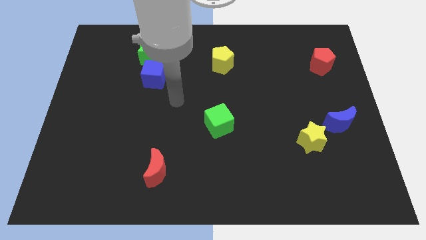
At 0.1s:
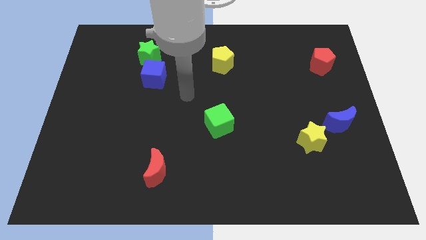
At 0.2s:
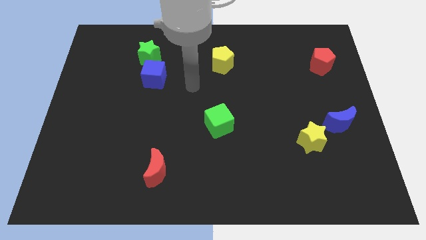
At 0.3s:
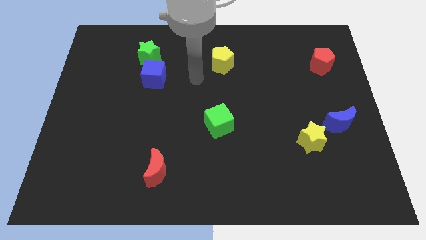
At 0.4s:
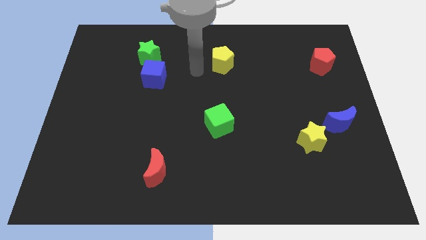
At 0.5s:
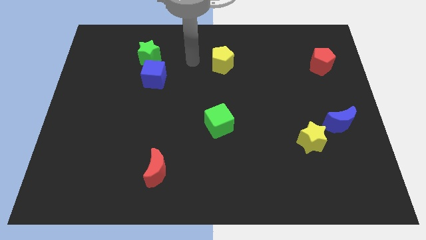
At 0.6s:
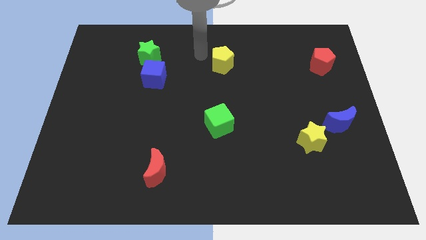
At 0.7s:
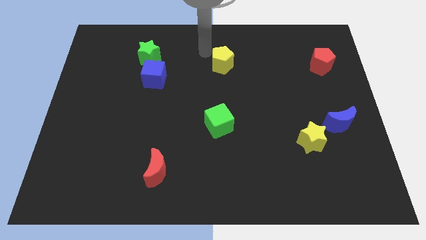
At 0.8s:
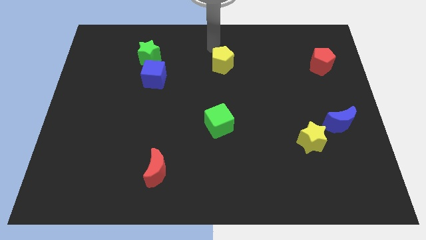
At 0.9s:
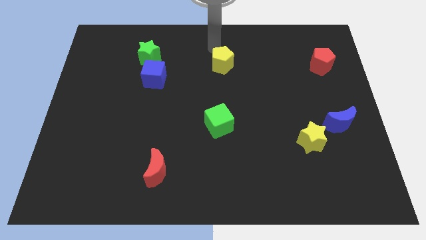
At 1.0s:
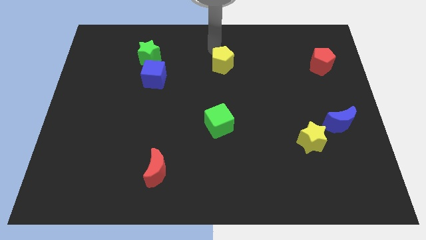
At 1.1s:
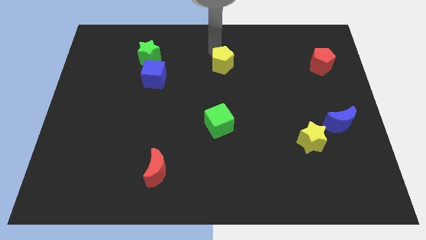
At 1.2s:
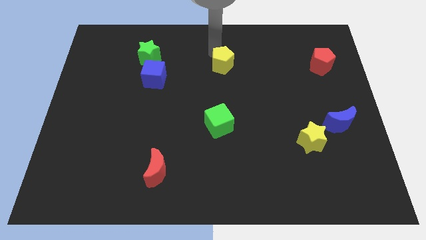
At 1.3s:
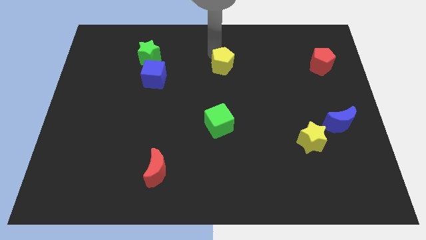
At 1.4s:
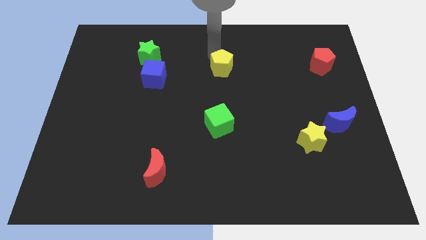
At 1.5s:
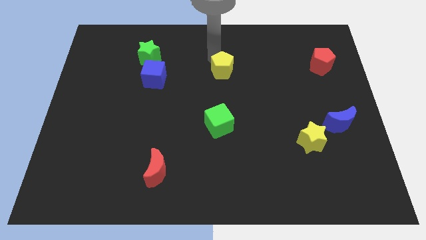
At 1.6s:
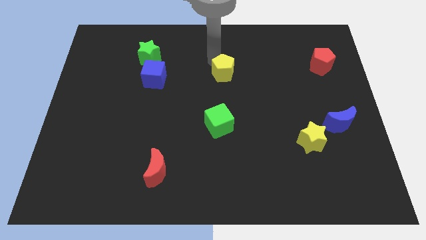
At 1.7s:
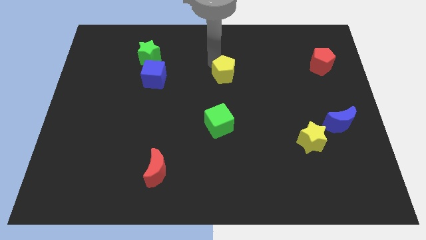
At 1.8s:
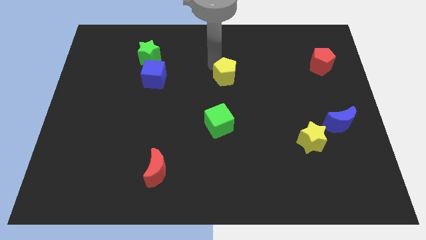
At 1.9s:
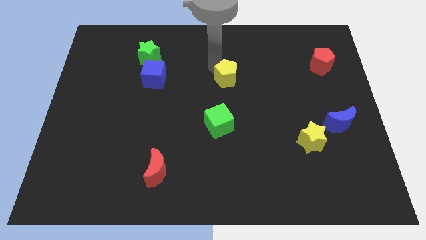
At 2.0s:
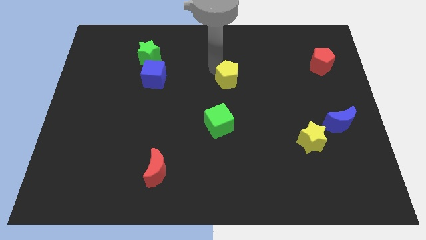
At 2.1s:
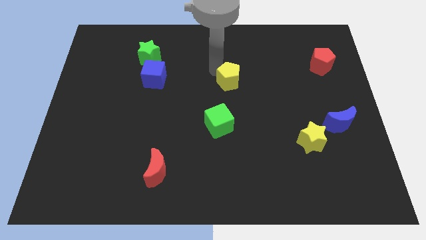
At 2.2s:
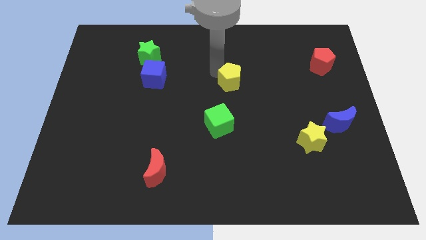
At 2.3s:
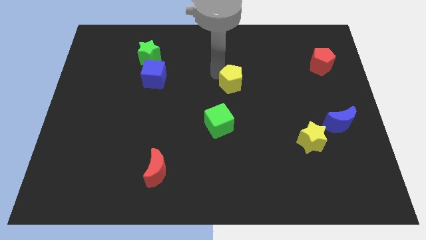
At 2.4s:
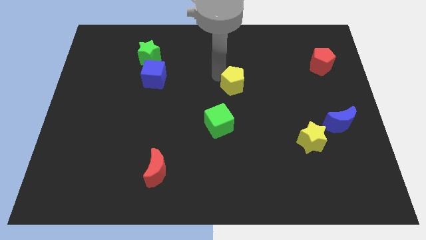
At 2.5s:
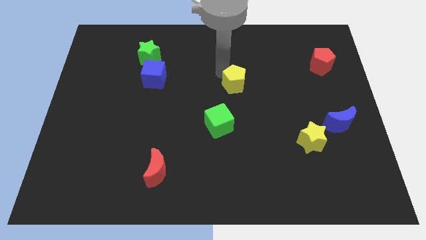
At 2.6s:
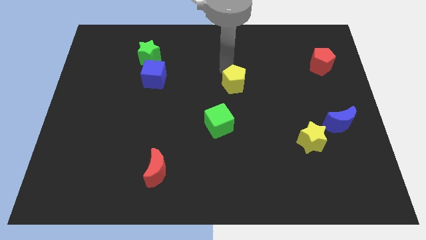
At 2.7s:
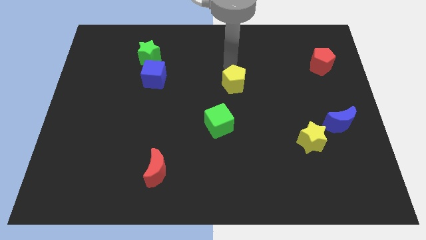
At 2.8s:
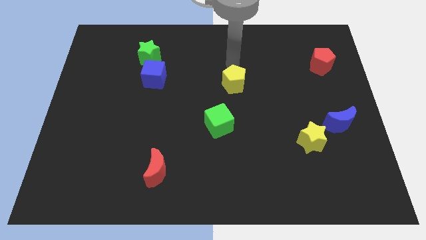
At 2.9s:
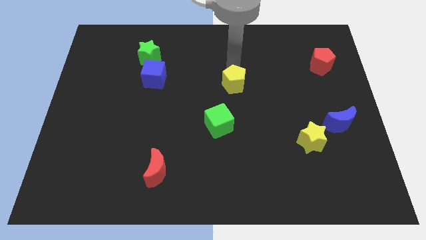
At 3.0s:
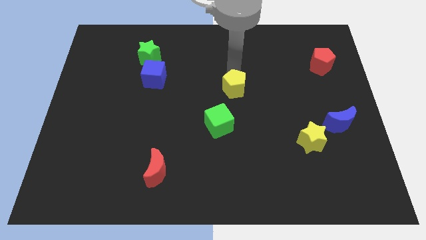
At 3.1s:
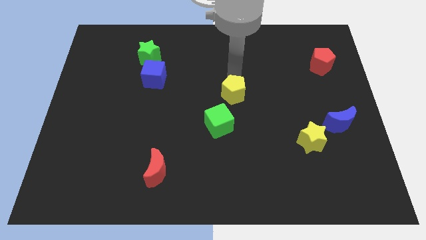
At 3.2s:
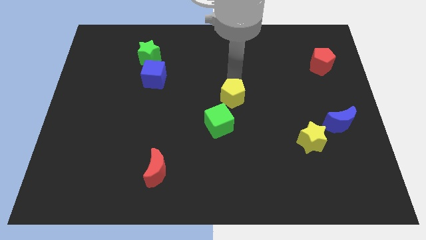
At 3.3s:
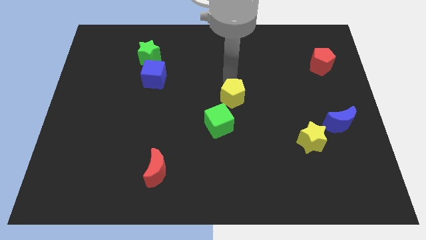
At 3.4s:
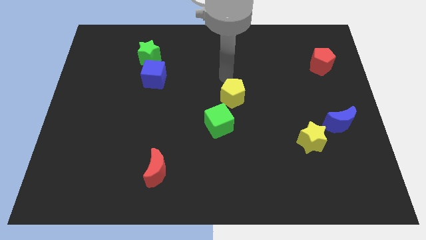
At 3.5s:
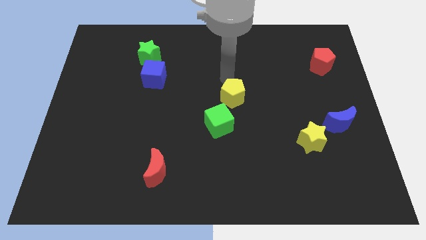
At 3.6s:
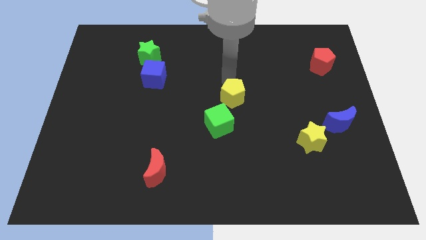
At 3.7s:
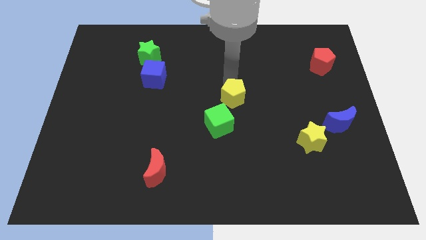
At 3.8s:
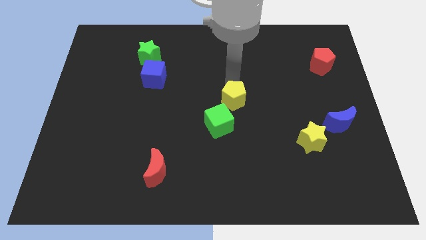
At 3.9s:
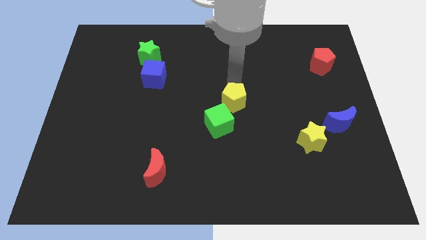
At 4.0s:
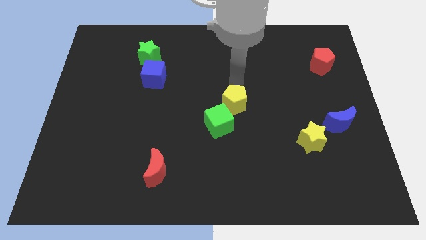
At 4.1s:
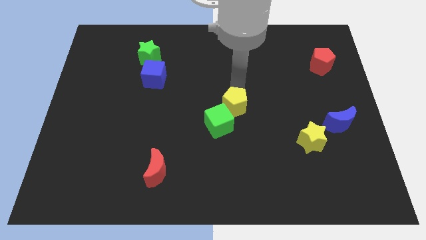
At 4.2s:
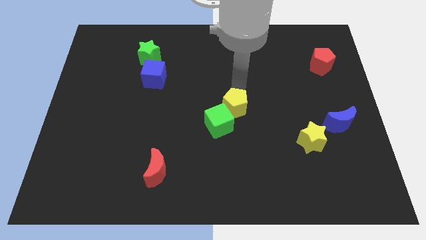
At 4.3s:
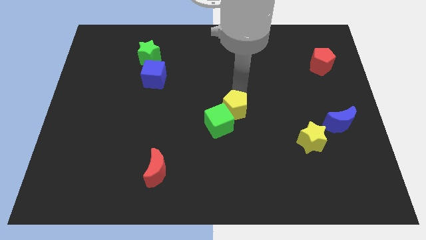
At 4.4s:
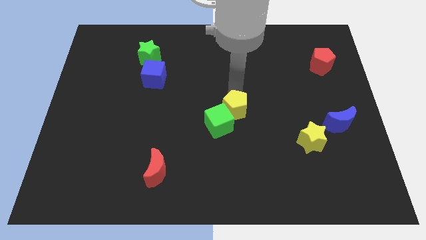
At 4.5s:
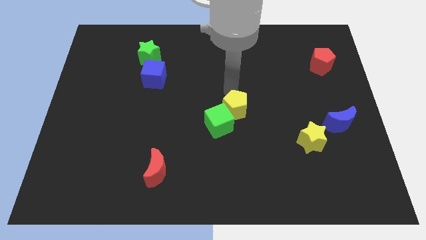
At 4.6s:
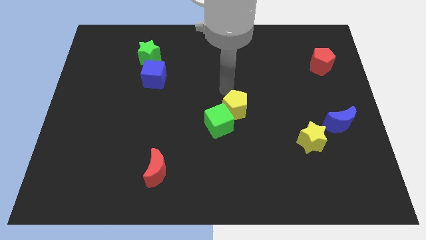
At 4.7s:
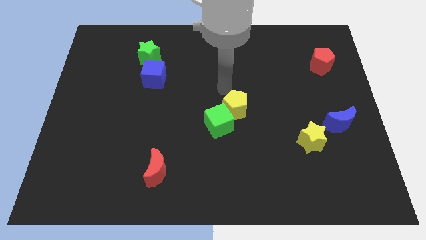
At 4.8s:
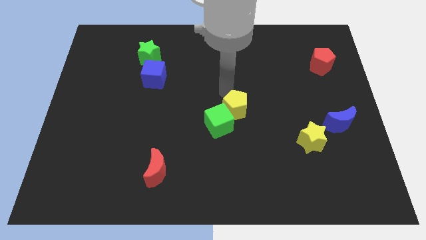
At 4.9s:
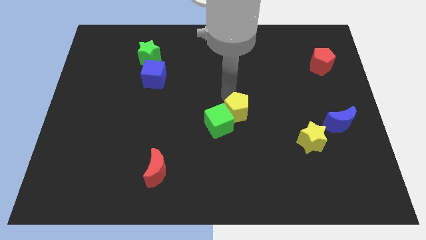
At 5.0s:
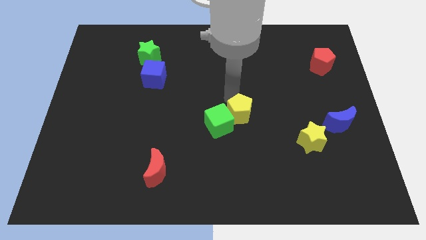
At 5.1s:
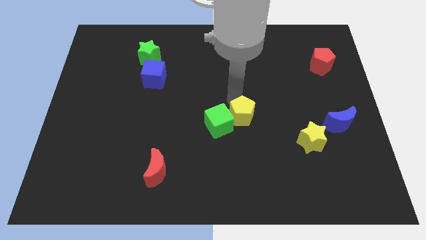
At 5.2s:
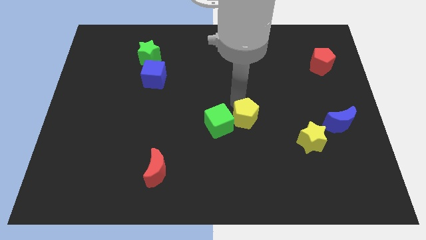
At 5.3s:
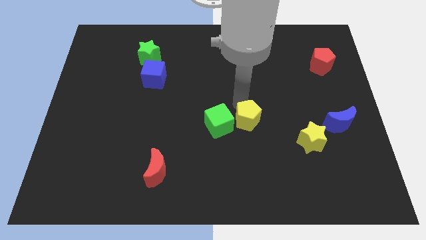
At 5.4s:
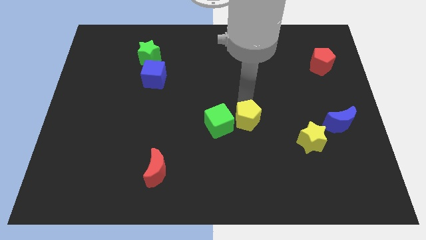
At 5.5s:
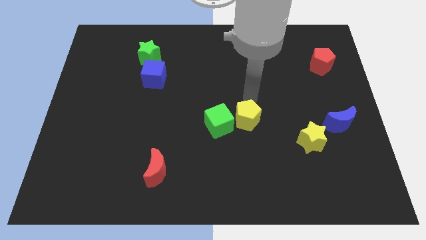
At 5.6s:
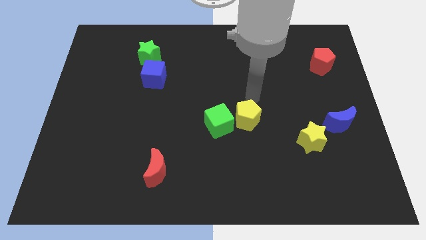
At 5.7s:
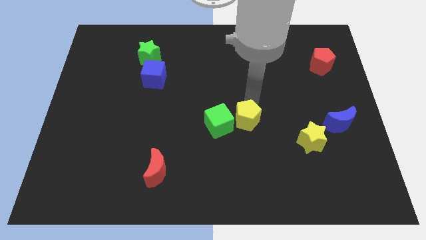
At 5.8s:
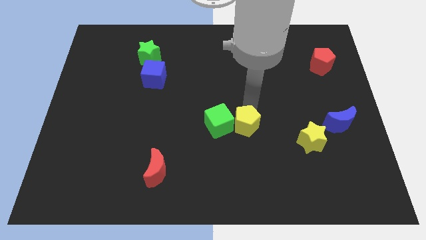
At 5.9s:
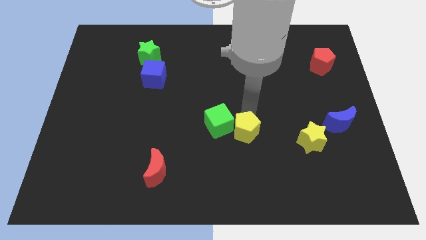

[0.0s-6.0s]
move the yellow pentagon down

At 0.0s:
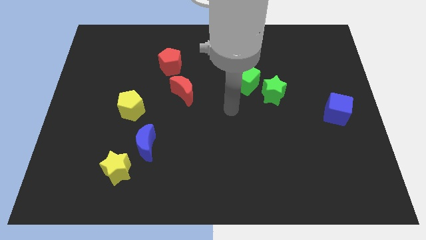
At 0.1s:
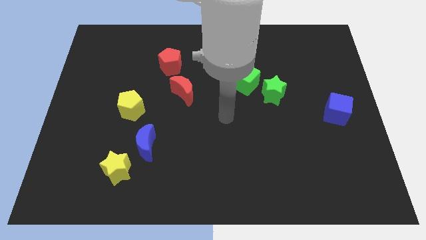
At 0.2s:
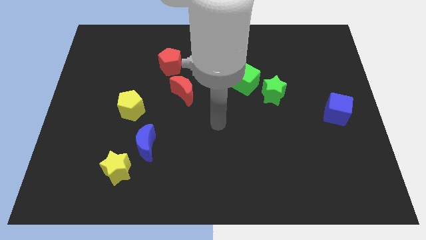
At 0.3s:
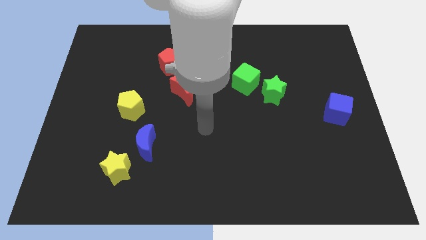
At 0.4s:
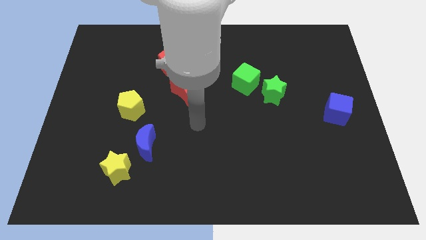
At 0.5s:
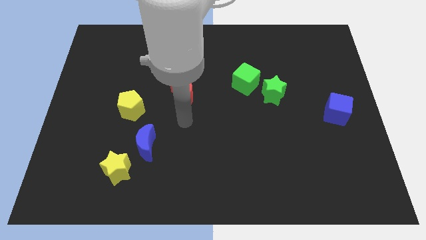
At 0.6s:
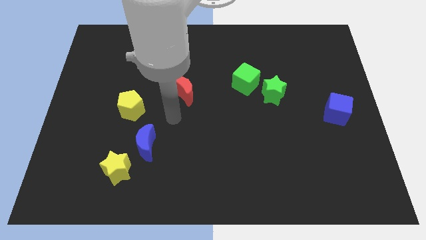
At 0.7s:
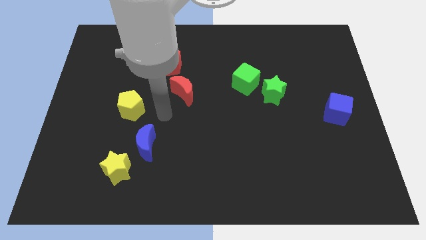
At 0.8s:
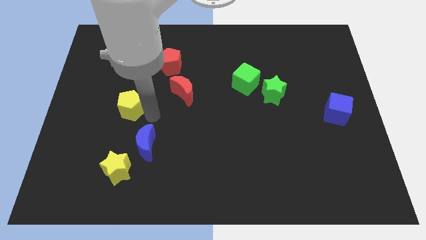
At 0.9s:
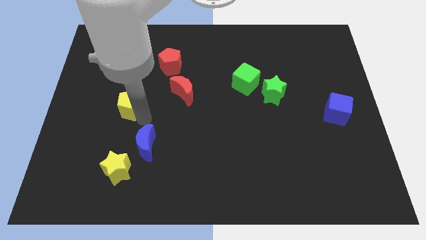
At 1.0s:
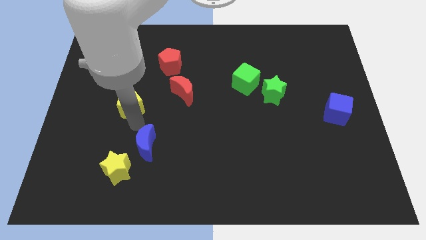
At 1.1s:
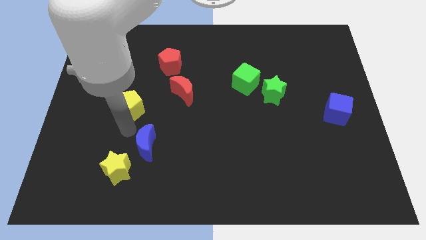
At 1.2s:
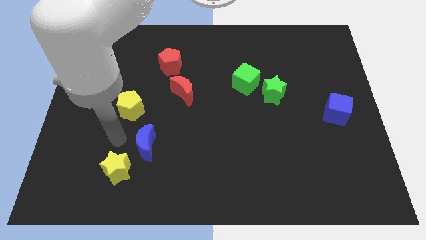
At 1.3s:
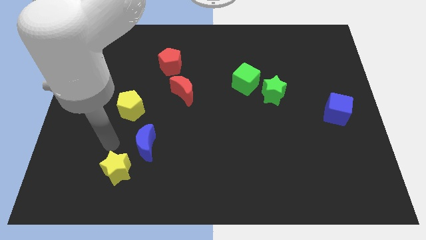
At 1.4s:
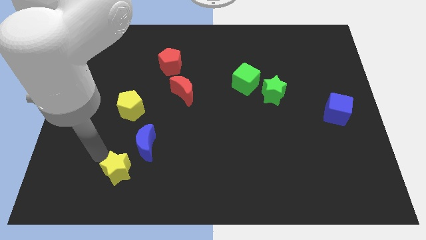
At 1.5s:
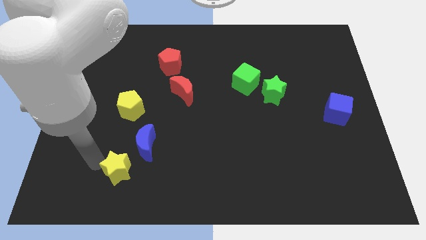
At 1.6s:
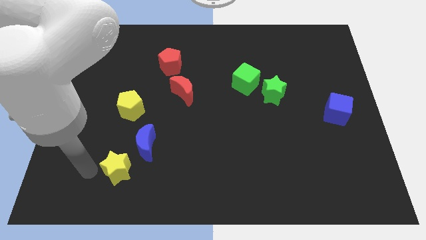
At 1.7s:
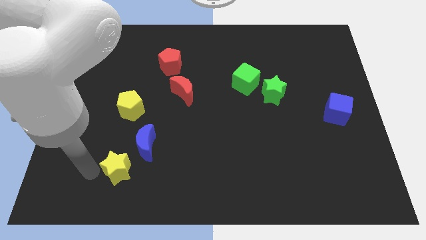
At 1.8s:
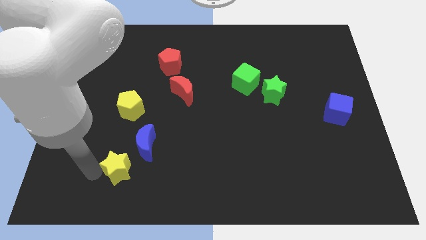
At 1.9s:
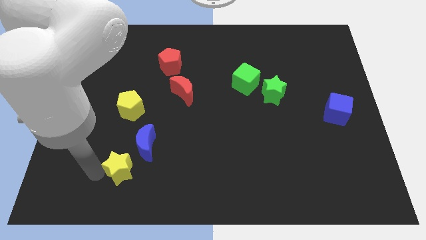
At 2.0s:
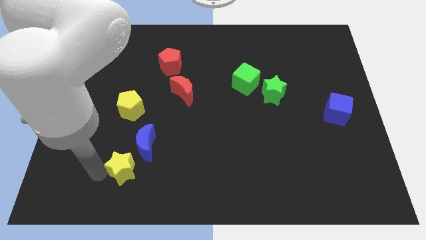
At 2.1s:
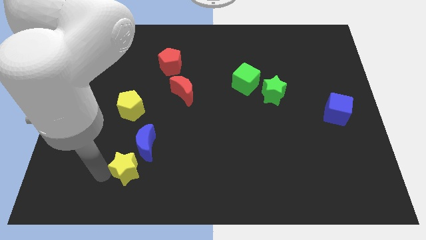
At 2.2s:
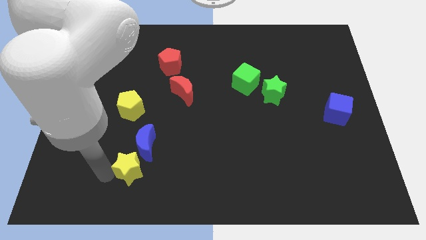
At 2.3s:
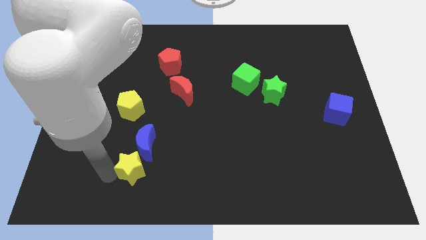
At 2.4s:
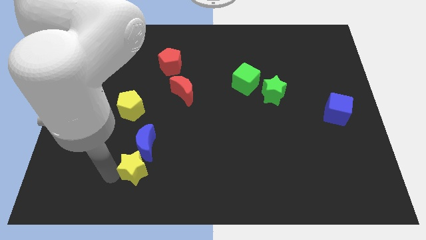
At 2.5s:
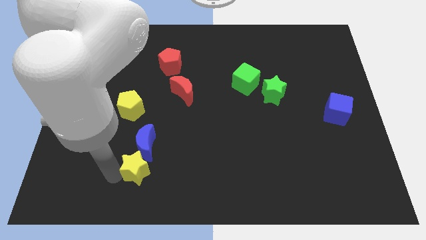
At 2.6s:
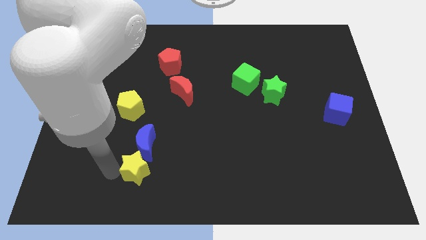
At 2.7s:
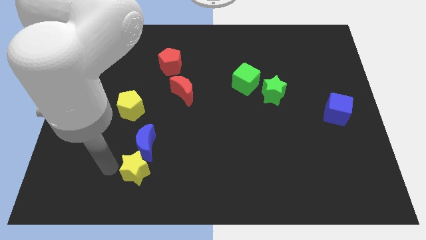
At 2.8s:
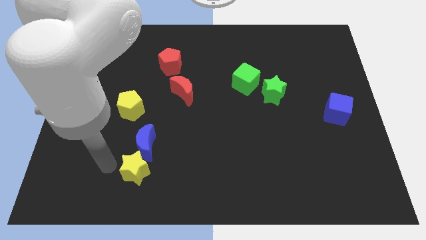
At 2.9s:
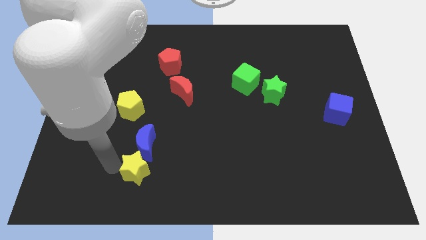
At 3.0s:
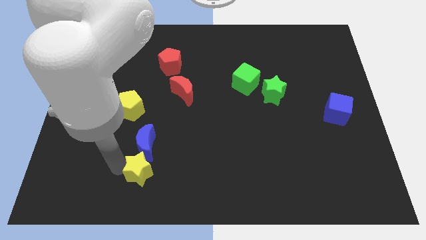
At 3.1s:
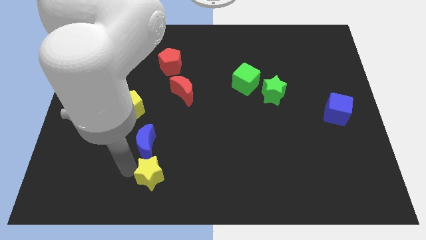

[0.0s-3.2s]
slightly push the yellow star to the right
